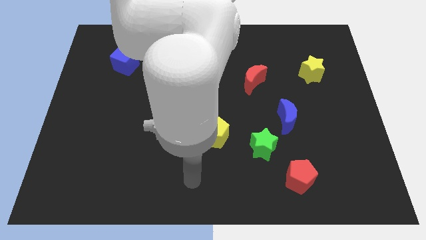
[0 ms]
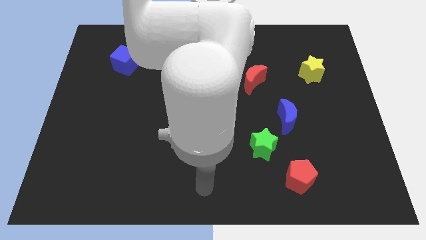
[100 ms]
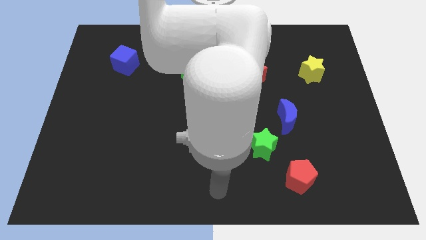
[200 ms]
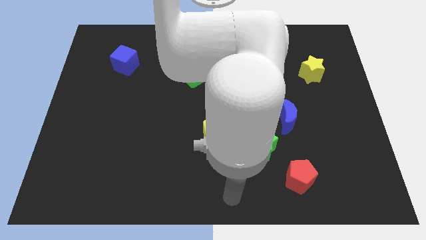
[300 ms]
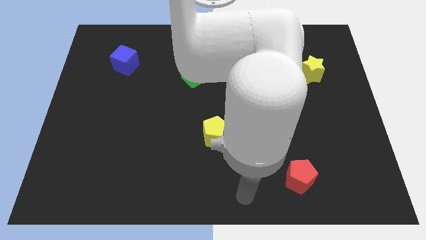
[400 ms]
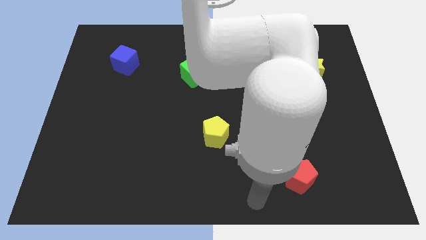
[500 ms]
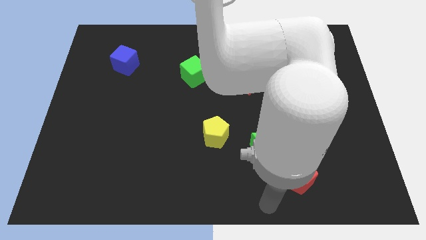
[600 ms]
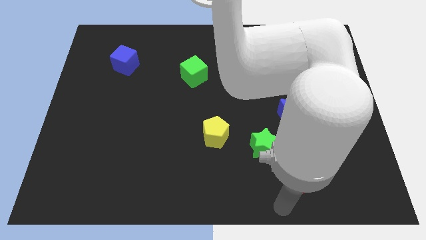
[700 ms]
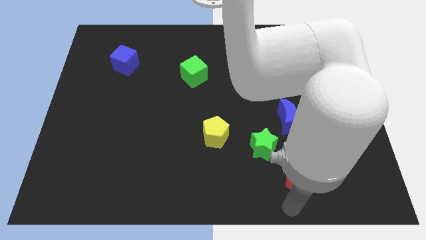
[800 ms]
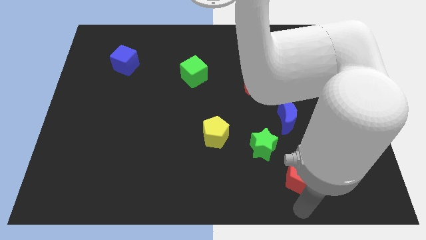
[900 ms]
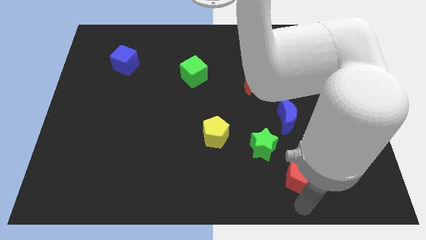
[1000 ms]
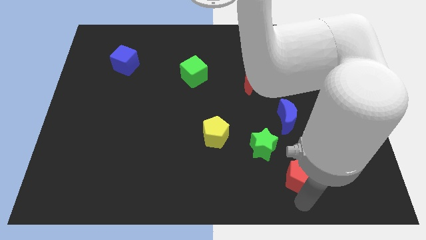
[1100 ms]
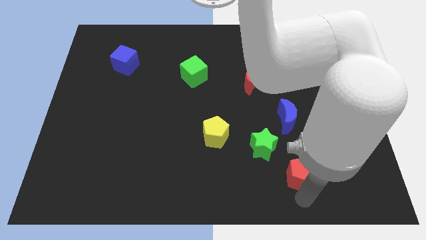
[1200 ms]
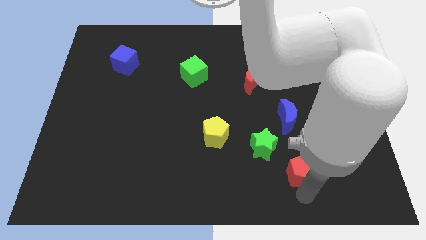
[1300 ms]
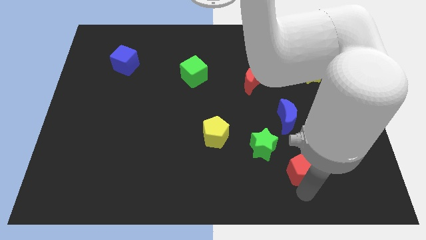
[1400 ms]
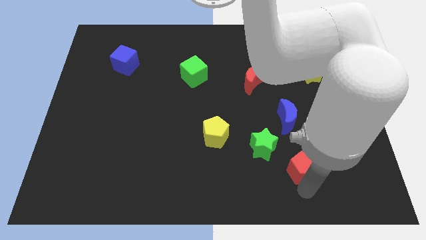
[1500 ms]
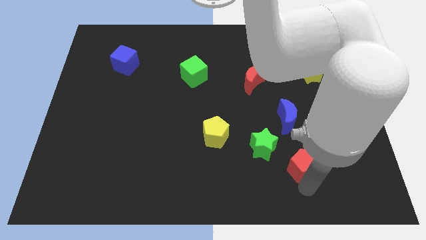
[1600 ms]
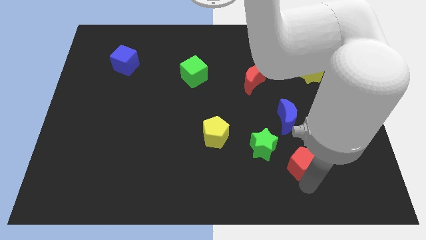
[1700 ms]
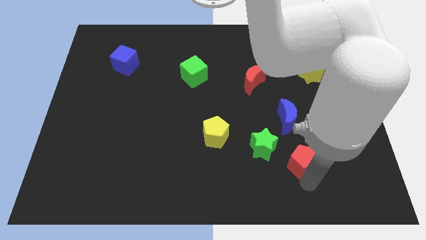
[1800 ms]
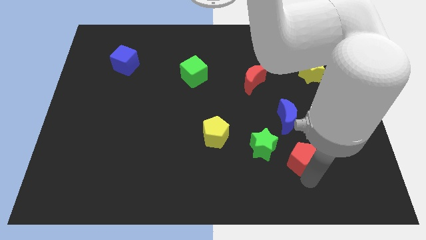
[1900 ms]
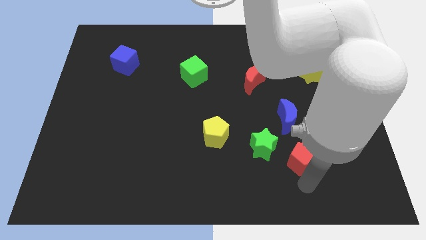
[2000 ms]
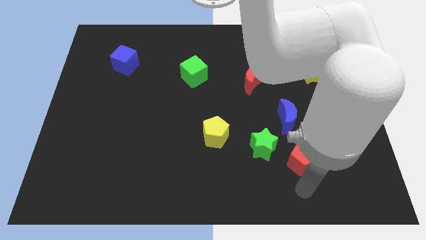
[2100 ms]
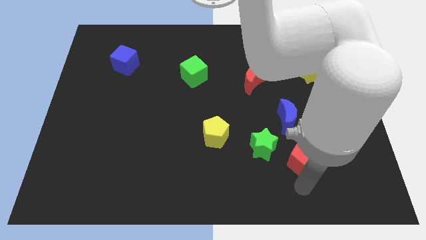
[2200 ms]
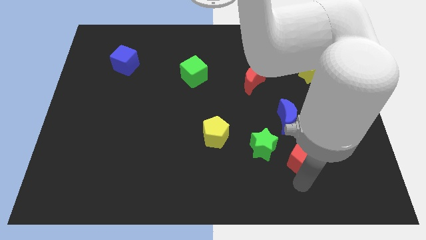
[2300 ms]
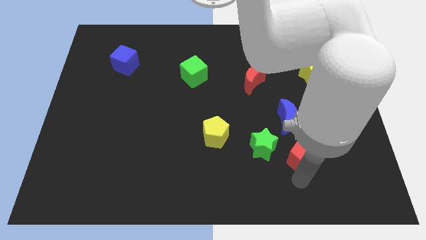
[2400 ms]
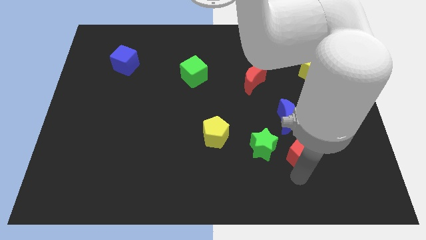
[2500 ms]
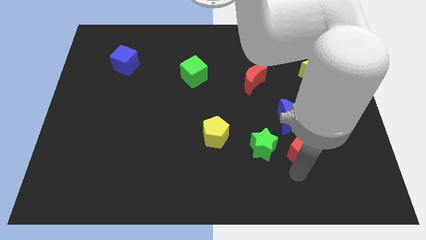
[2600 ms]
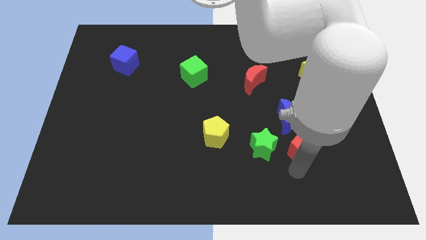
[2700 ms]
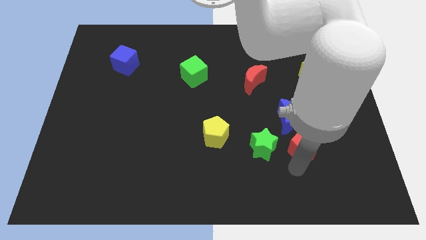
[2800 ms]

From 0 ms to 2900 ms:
slide the red pentagon somewhat up

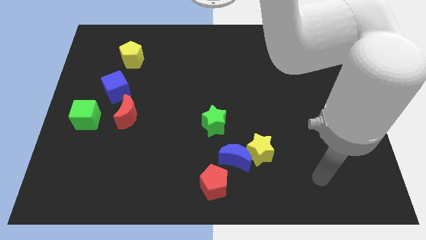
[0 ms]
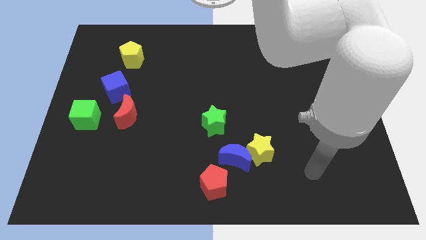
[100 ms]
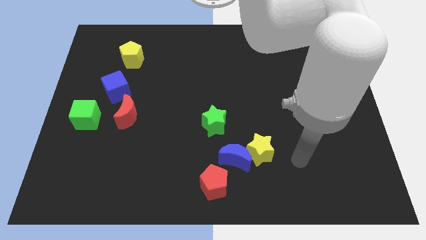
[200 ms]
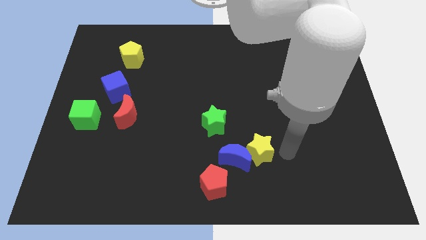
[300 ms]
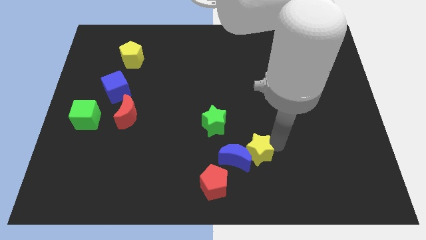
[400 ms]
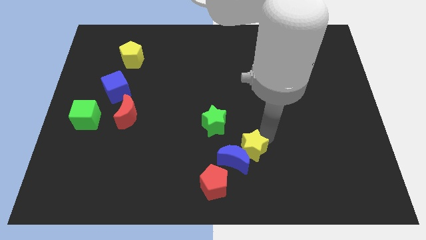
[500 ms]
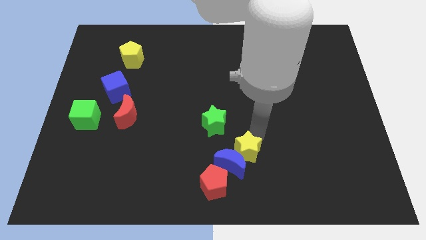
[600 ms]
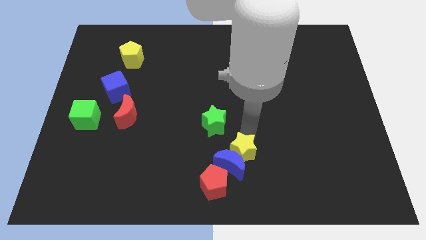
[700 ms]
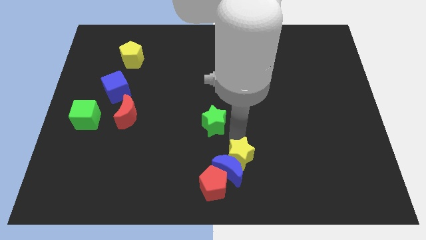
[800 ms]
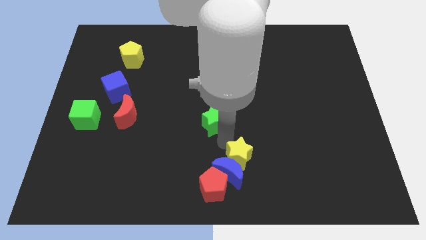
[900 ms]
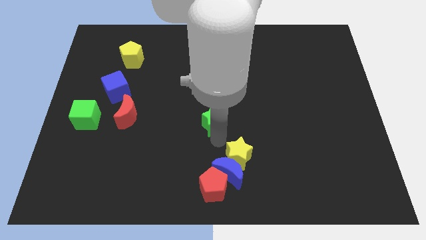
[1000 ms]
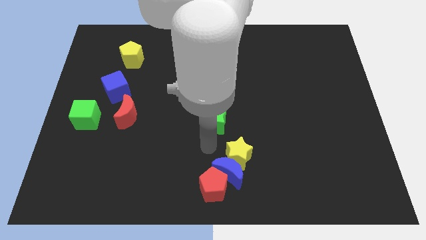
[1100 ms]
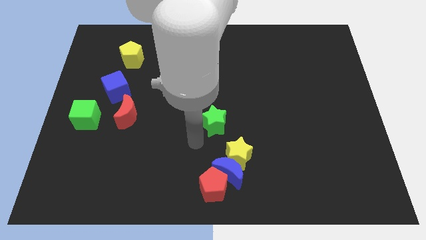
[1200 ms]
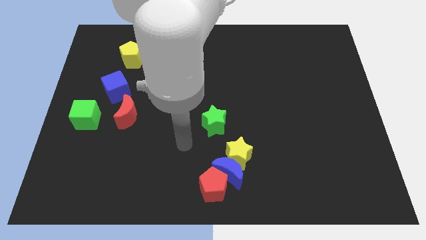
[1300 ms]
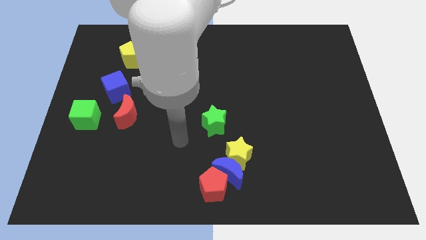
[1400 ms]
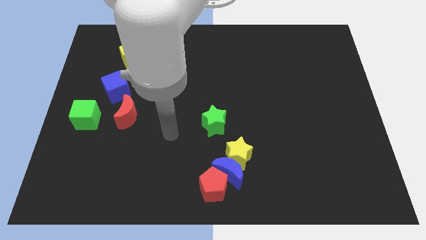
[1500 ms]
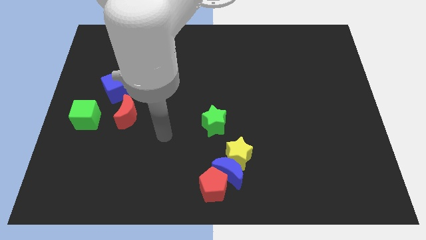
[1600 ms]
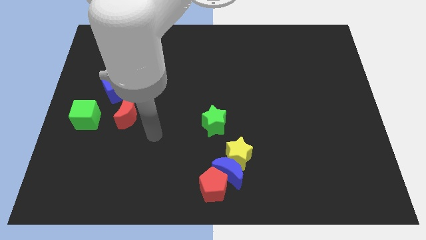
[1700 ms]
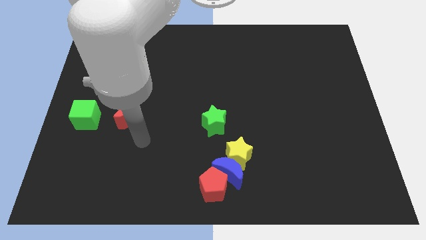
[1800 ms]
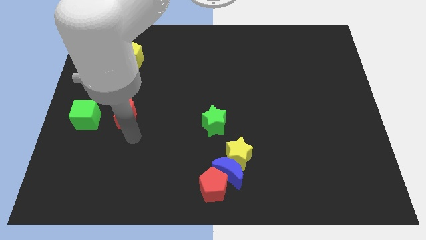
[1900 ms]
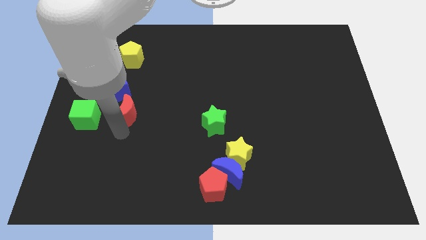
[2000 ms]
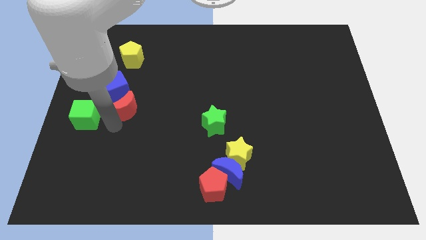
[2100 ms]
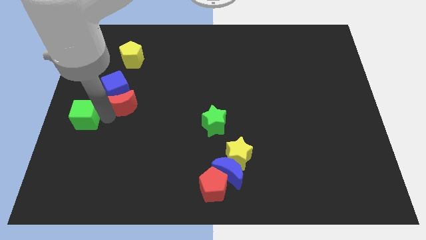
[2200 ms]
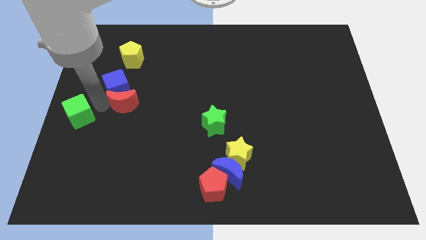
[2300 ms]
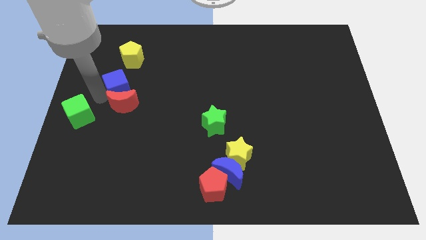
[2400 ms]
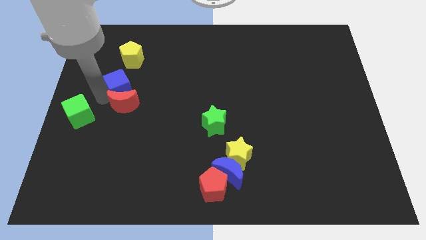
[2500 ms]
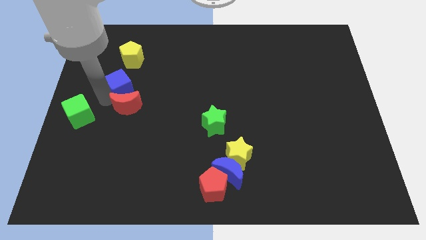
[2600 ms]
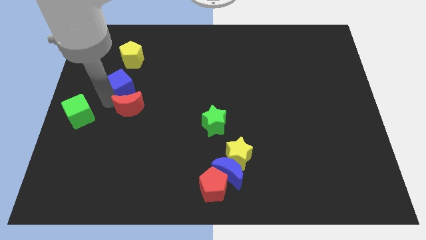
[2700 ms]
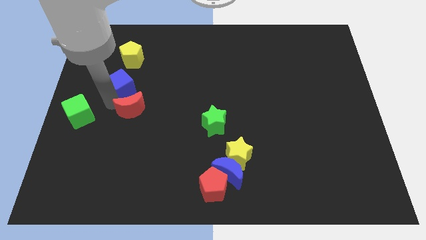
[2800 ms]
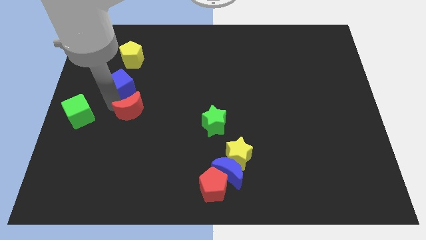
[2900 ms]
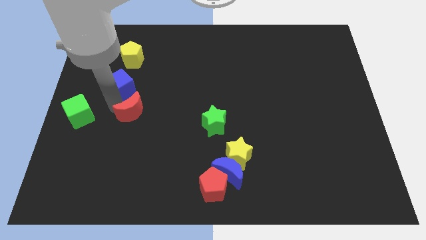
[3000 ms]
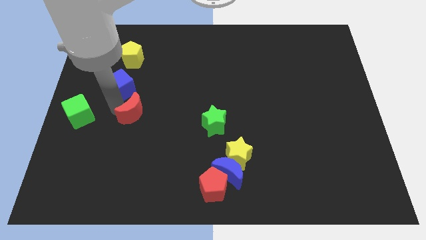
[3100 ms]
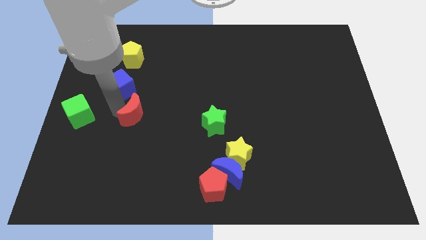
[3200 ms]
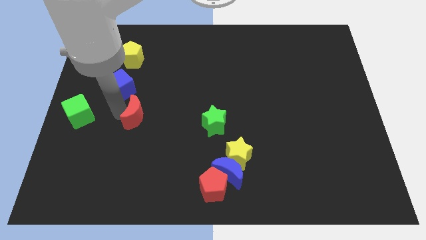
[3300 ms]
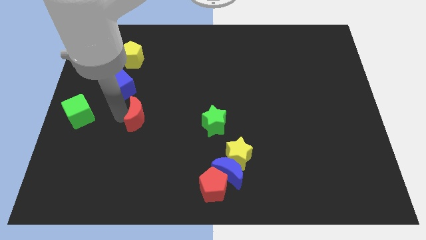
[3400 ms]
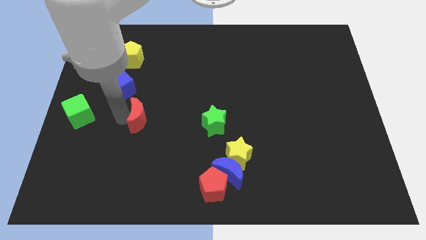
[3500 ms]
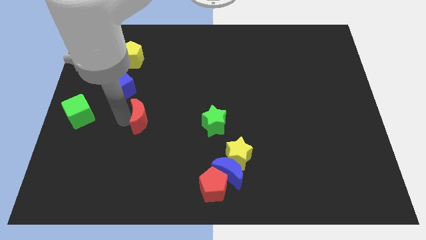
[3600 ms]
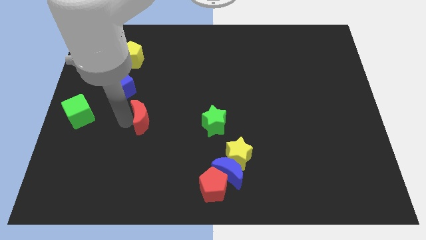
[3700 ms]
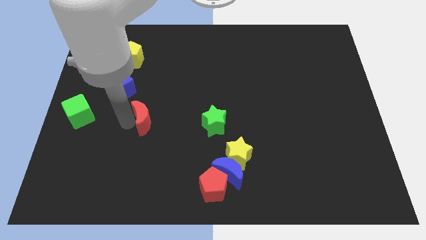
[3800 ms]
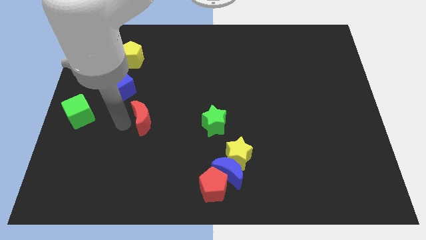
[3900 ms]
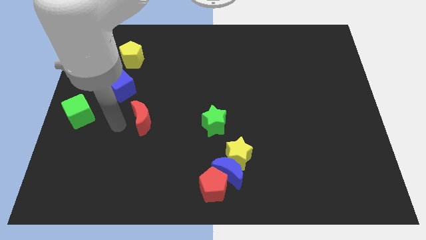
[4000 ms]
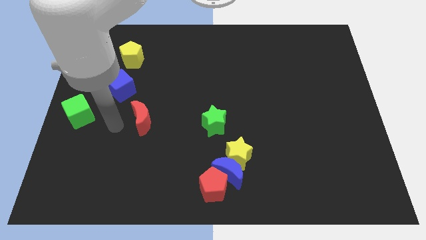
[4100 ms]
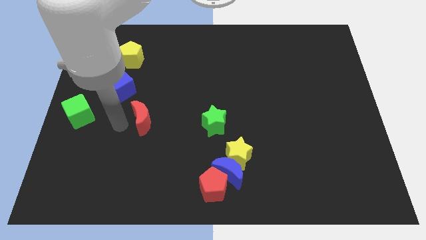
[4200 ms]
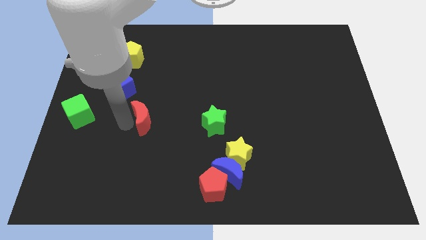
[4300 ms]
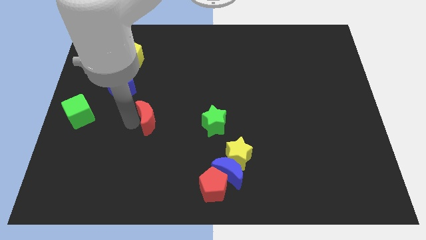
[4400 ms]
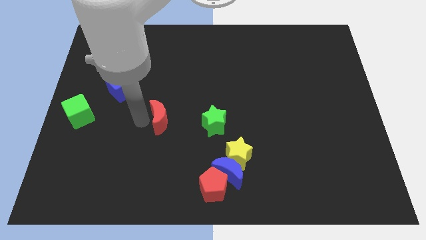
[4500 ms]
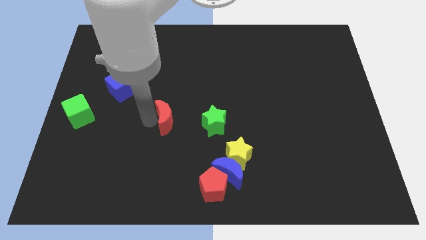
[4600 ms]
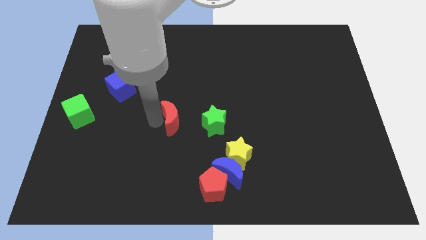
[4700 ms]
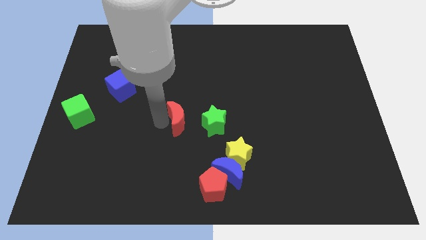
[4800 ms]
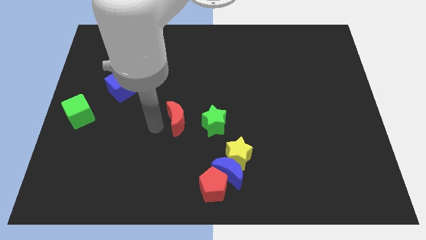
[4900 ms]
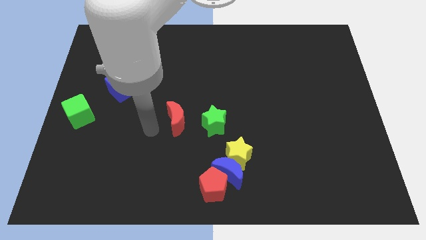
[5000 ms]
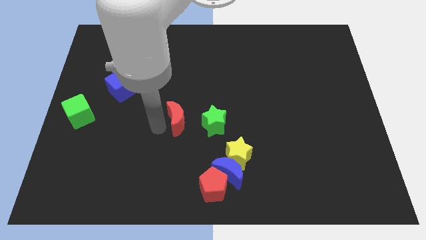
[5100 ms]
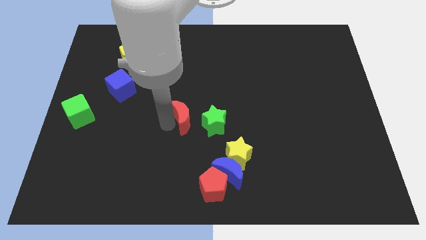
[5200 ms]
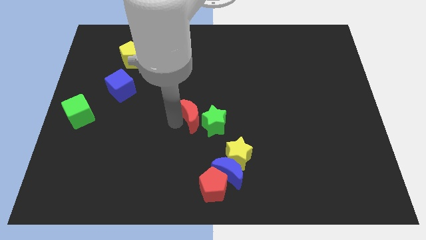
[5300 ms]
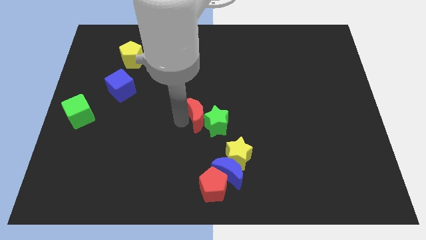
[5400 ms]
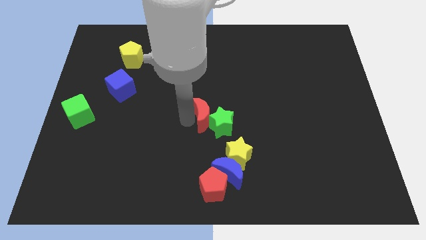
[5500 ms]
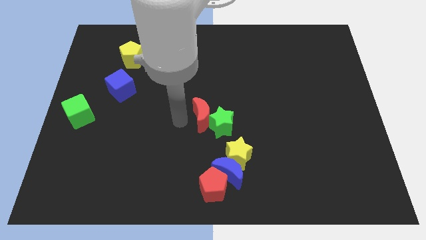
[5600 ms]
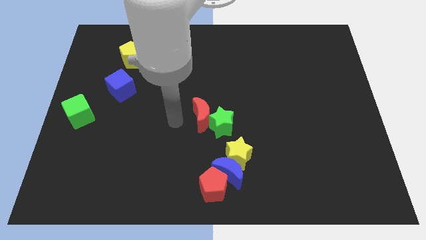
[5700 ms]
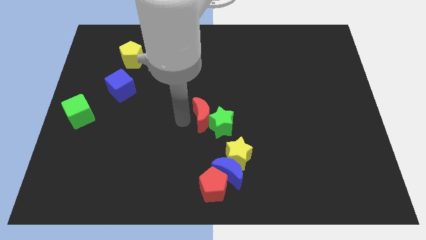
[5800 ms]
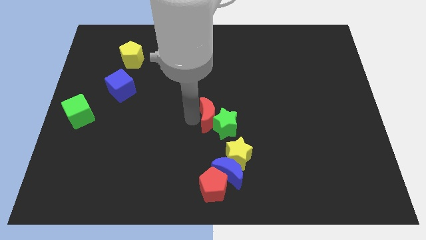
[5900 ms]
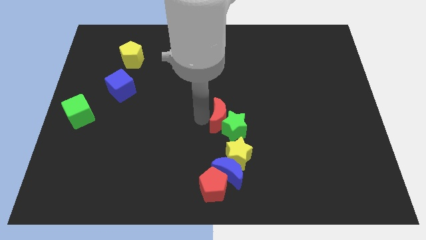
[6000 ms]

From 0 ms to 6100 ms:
slide the red moon to the right
